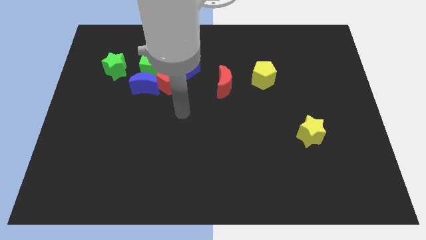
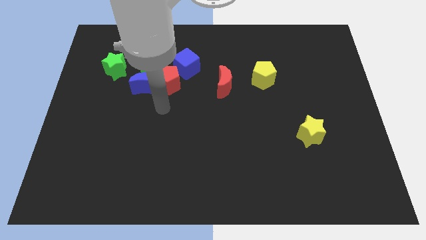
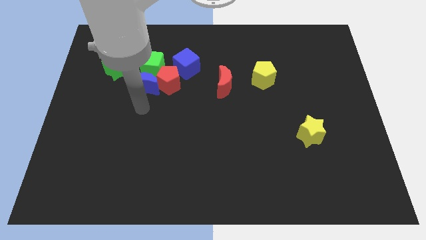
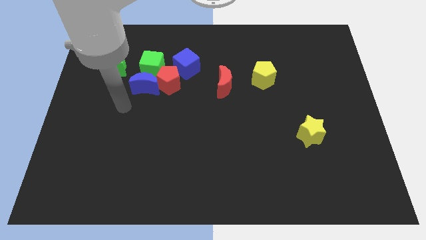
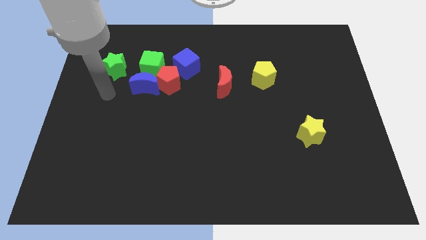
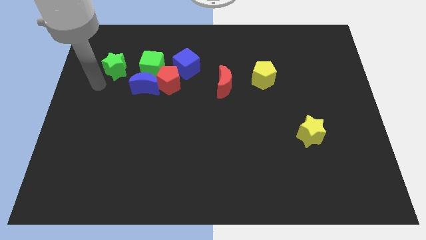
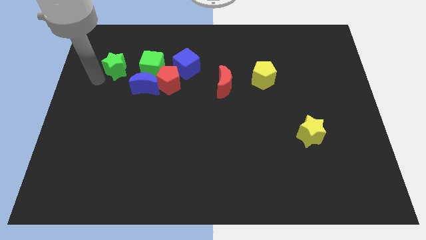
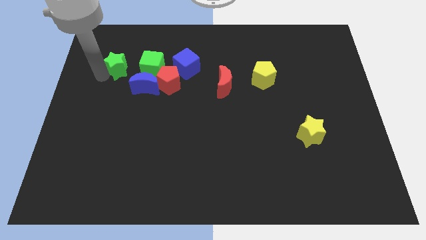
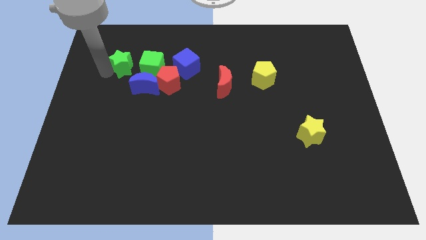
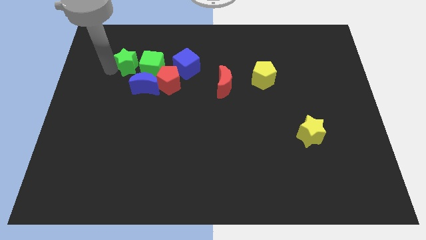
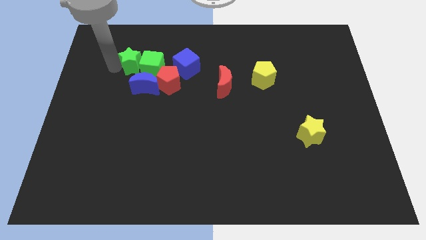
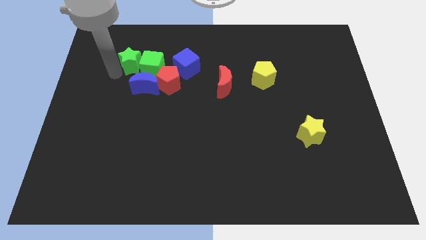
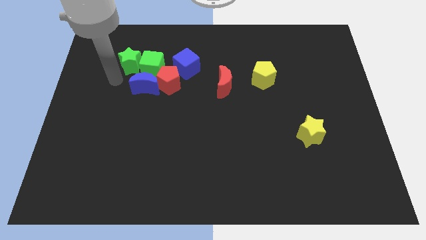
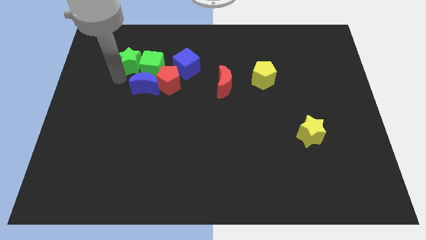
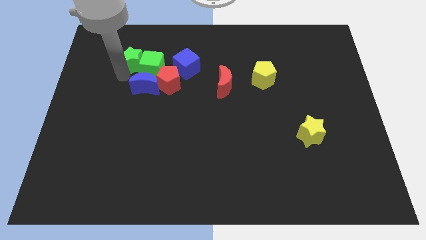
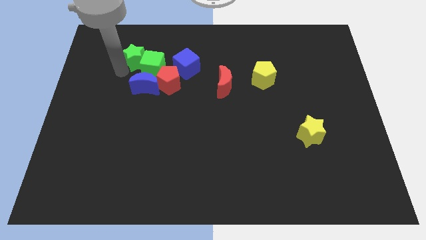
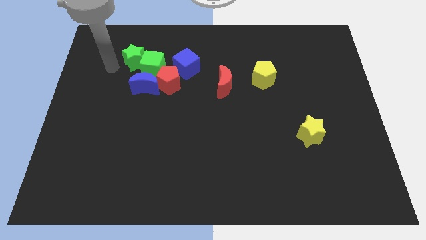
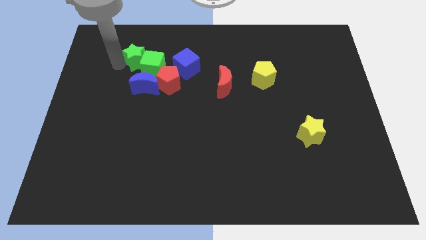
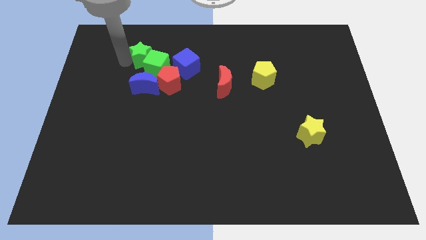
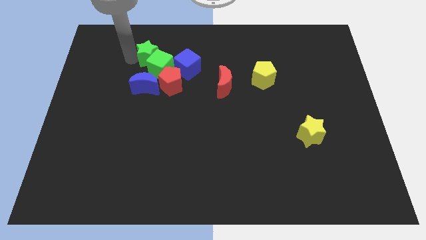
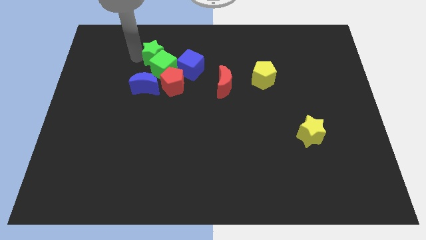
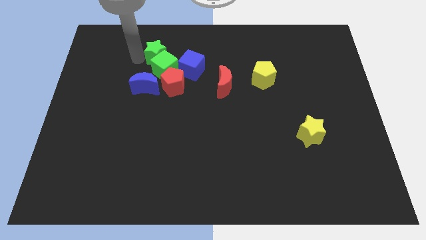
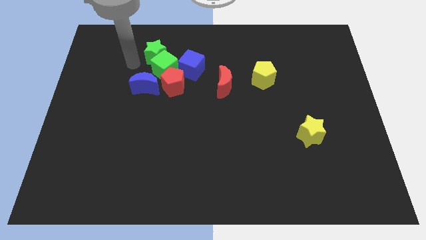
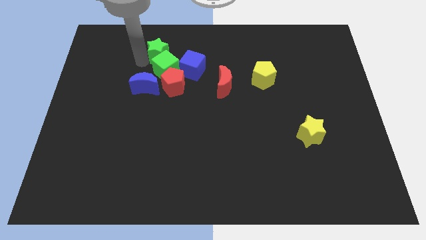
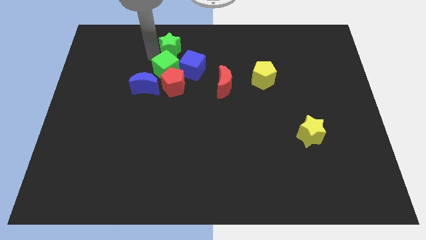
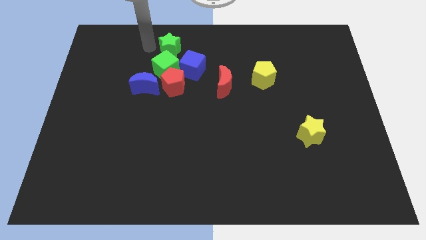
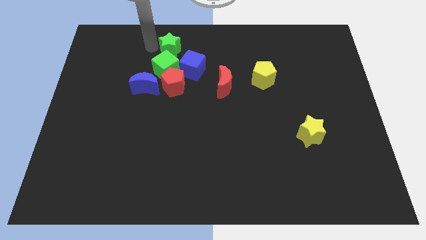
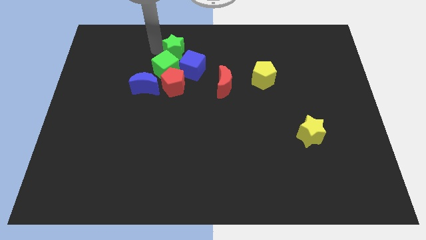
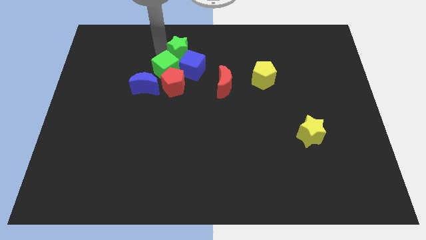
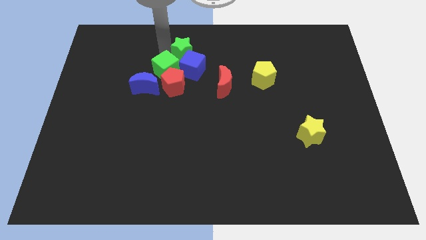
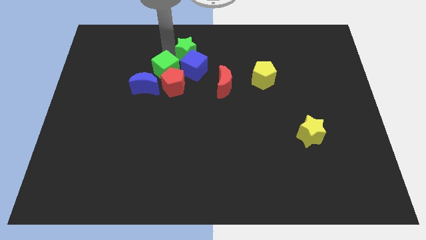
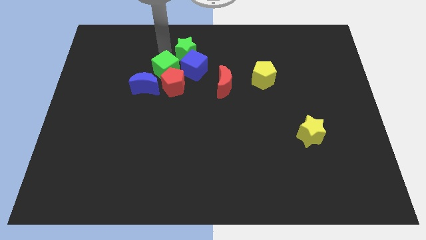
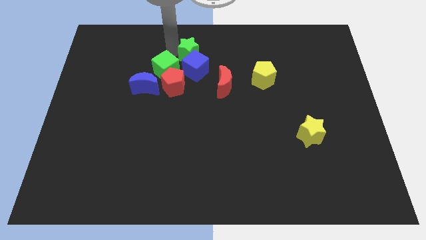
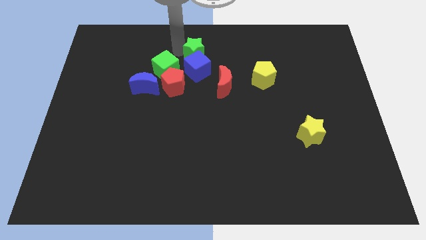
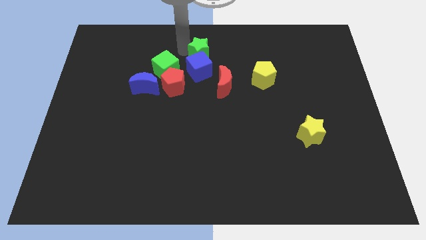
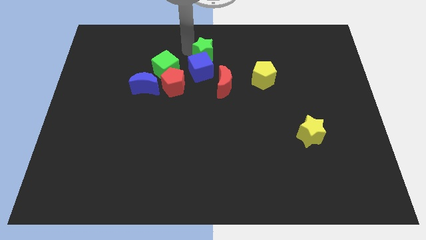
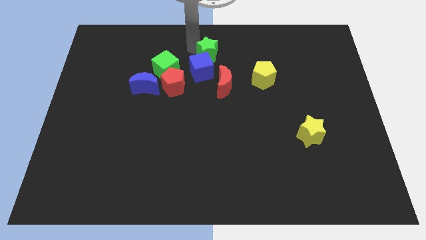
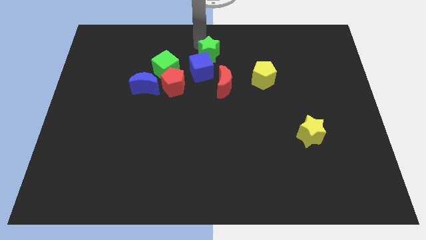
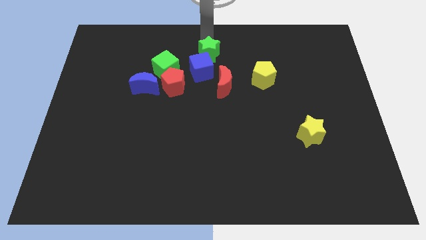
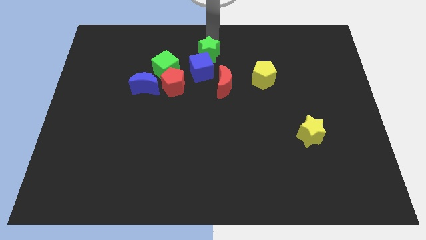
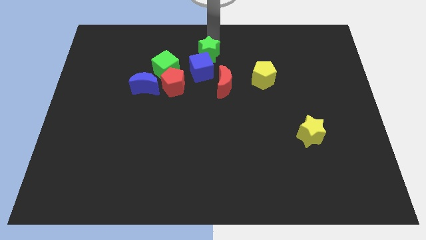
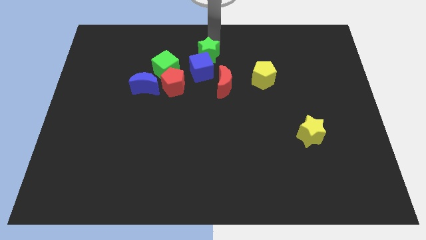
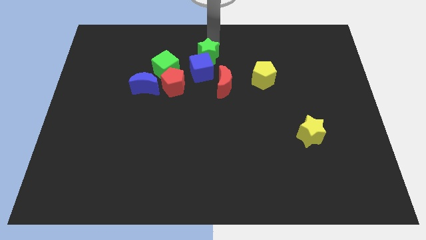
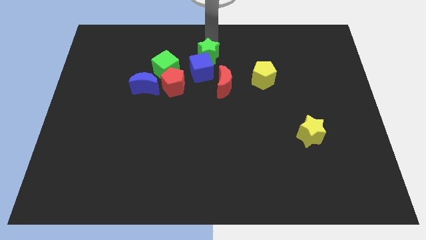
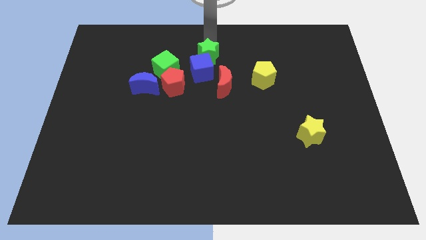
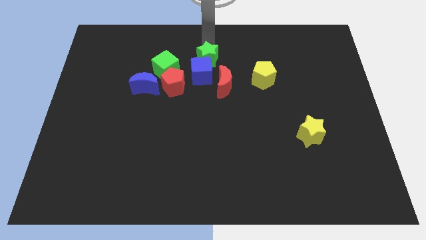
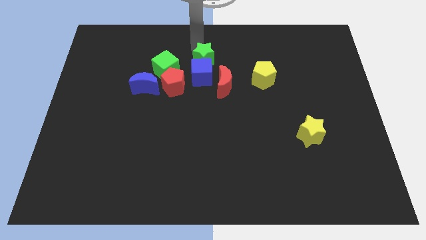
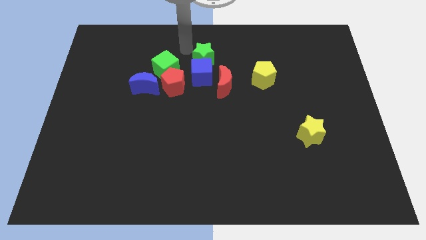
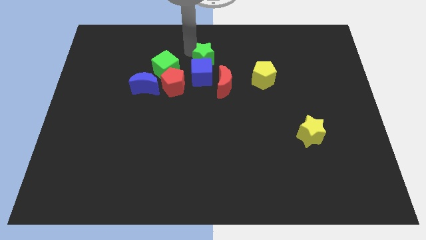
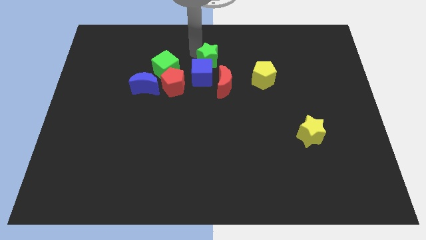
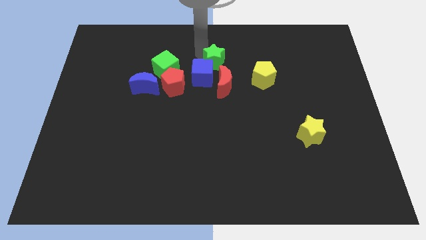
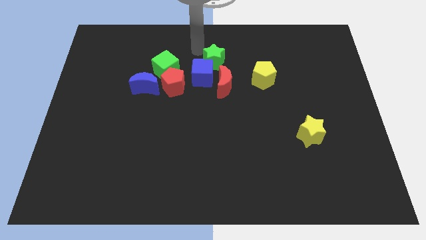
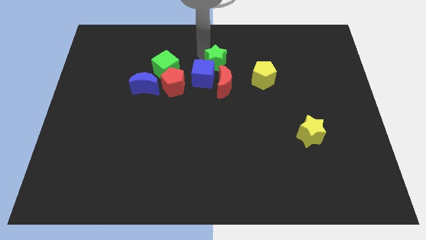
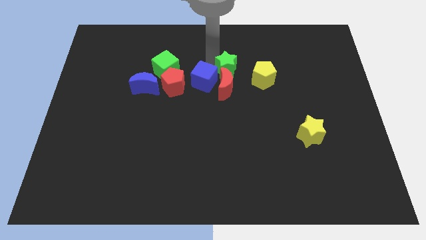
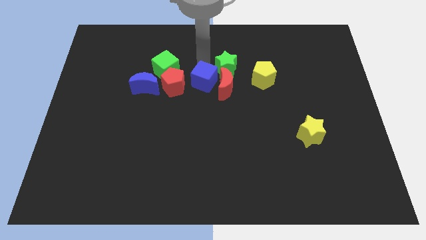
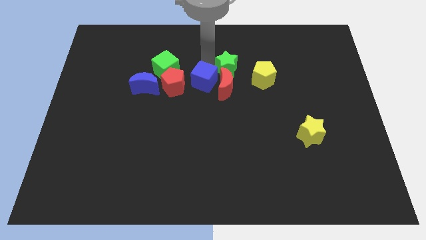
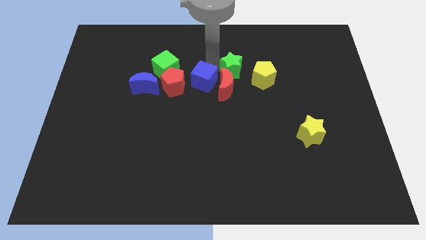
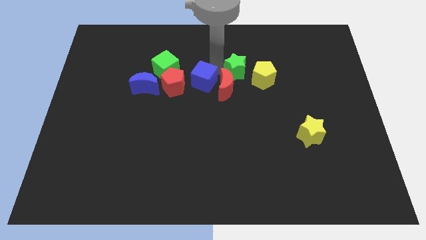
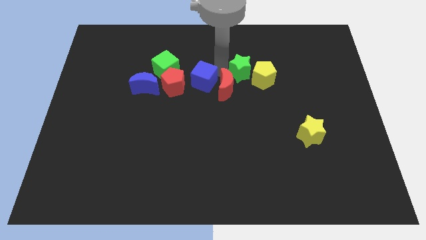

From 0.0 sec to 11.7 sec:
push the green star towards the yellow pentagon

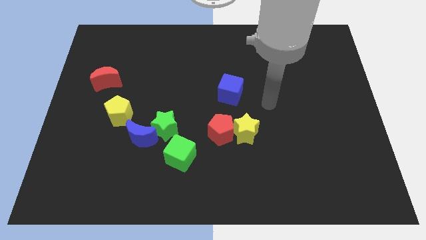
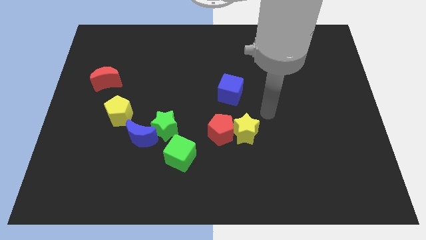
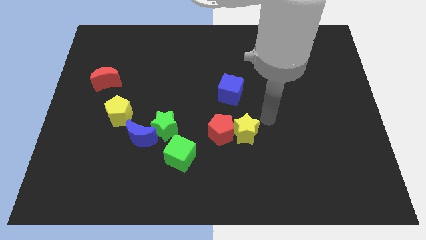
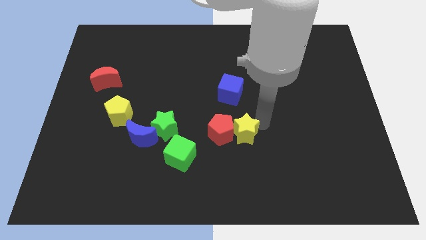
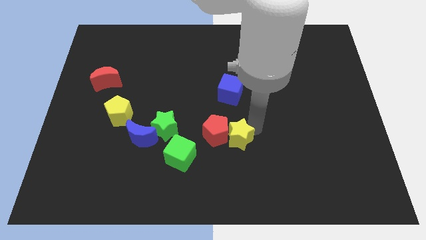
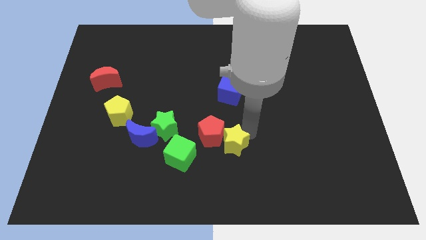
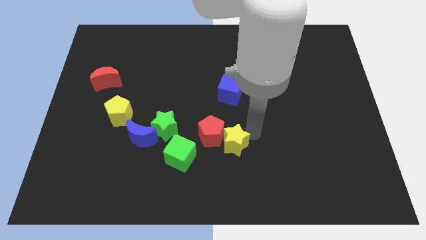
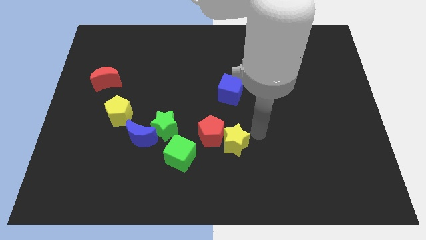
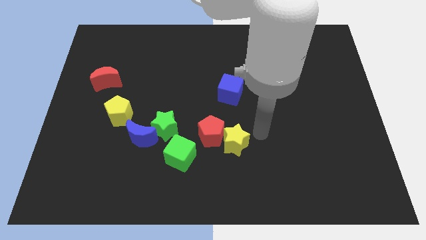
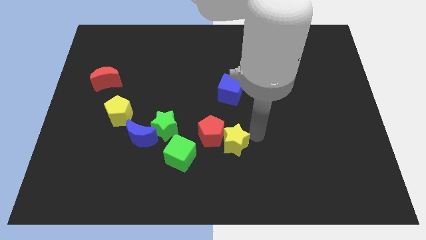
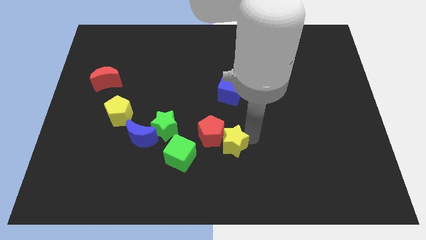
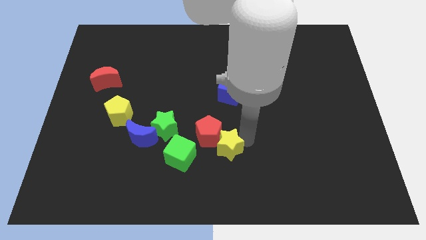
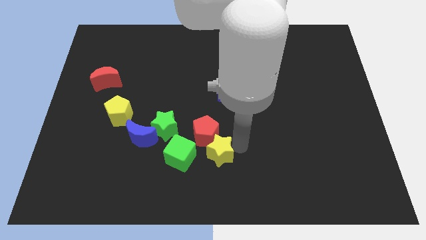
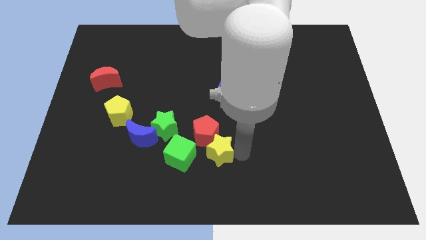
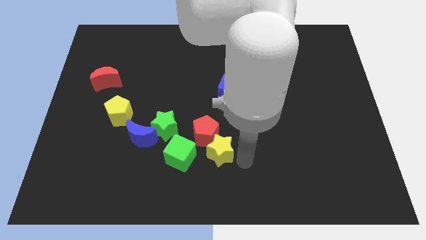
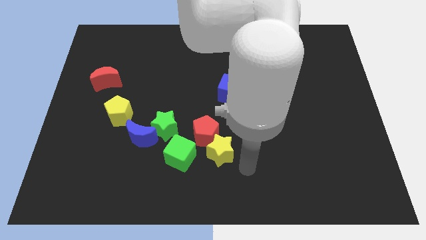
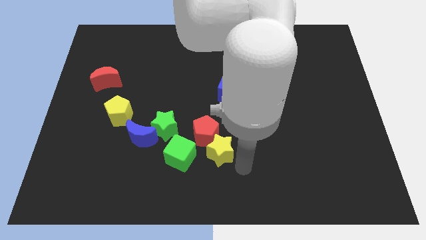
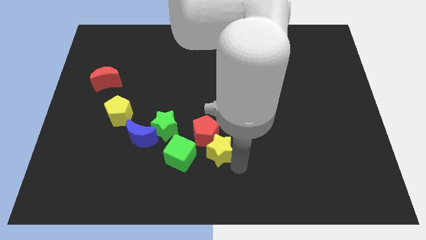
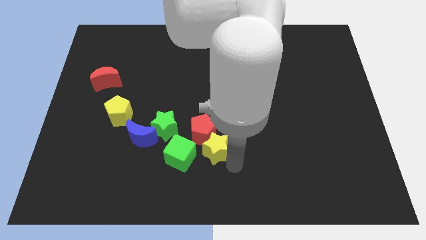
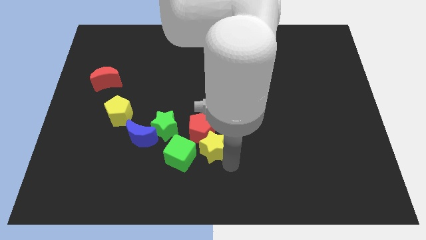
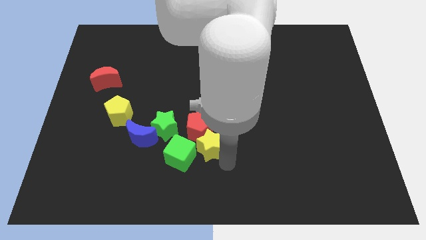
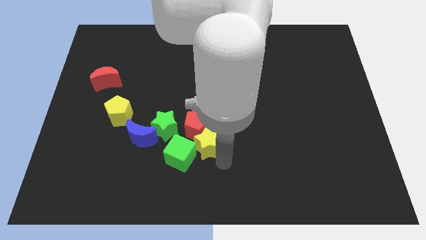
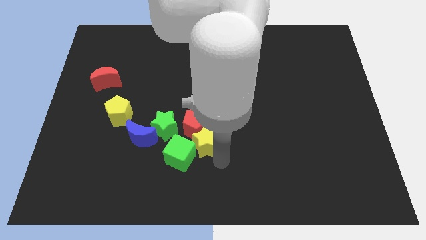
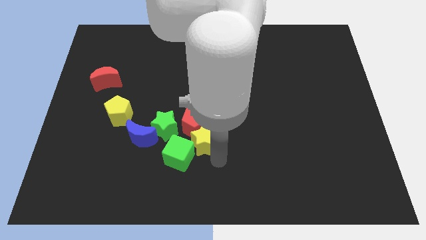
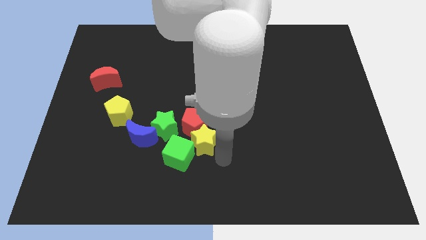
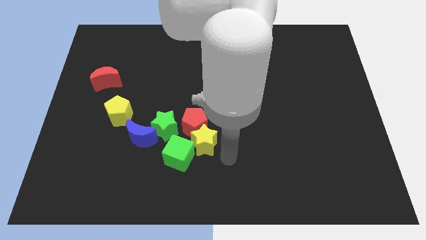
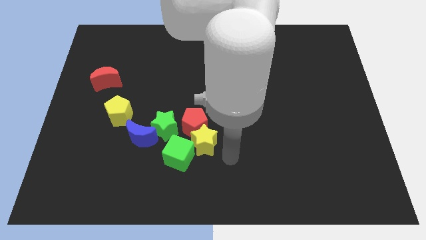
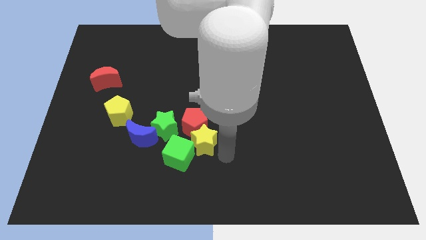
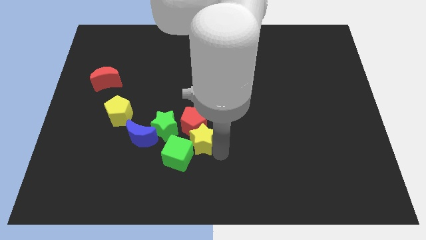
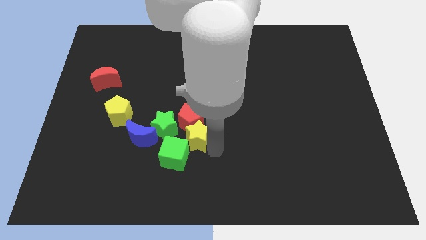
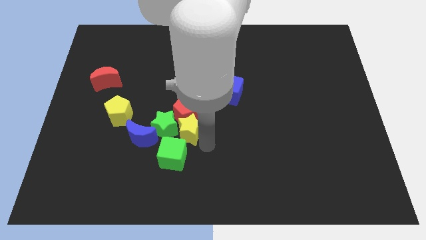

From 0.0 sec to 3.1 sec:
slide the yellow star to the green star
